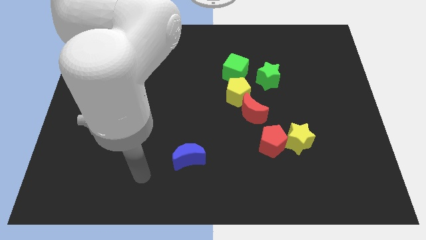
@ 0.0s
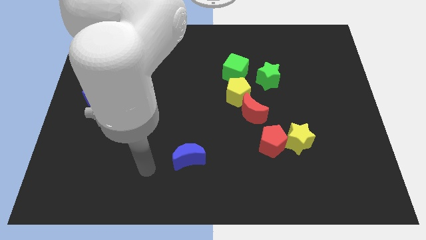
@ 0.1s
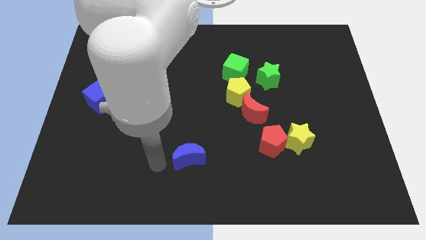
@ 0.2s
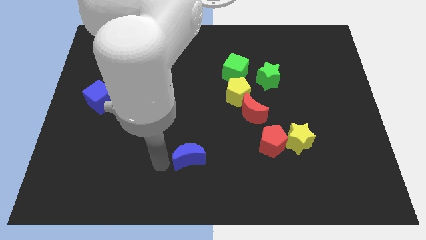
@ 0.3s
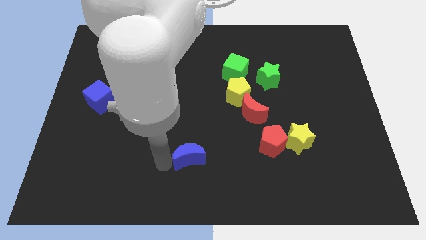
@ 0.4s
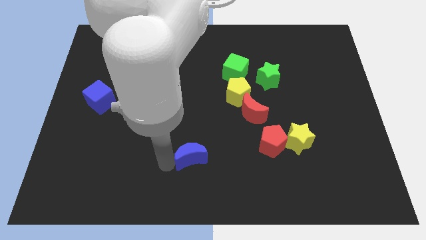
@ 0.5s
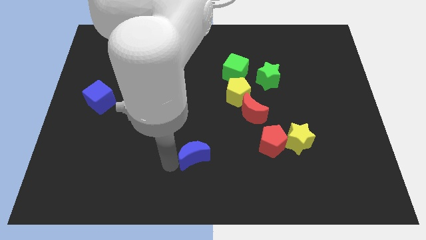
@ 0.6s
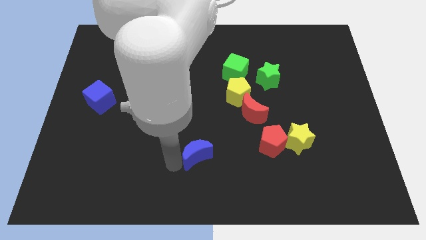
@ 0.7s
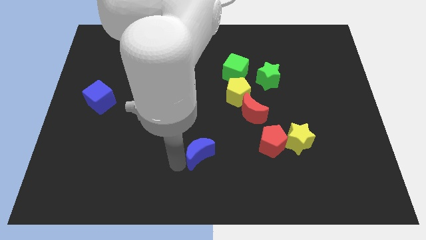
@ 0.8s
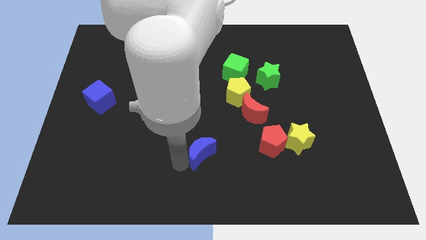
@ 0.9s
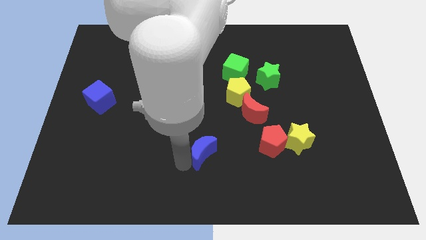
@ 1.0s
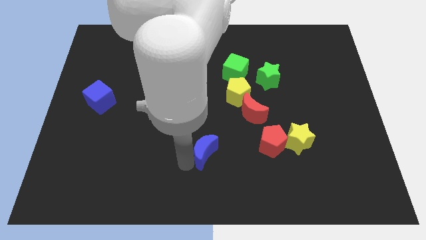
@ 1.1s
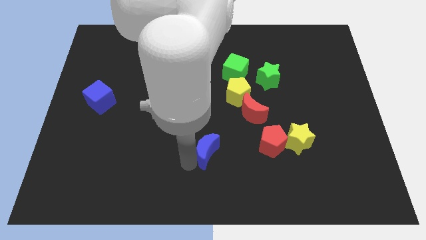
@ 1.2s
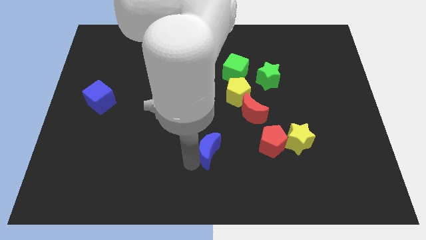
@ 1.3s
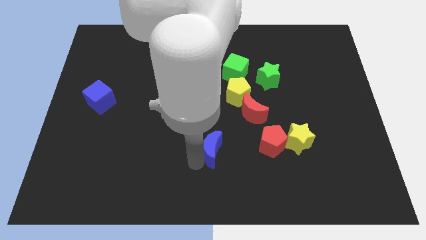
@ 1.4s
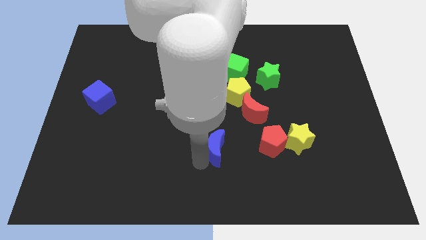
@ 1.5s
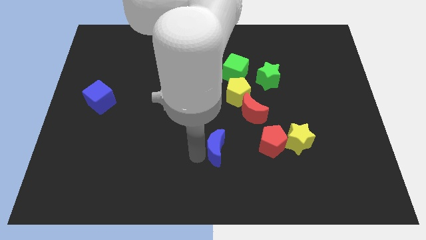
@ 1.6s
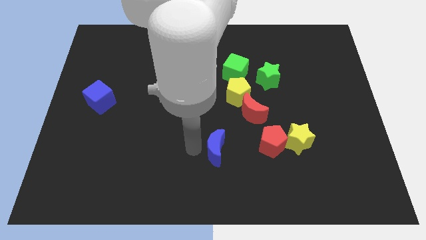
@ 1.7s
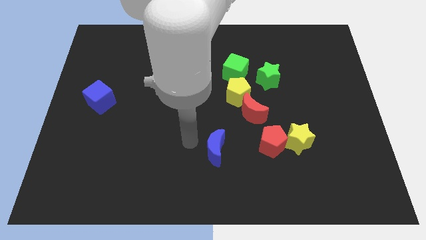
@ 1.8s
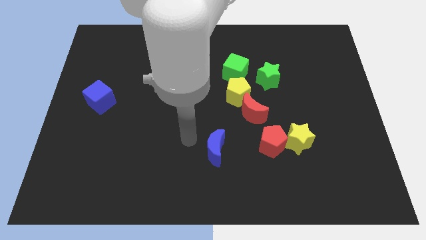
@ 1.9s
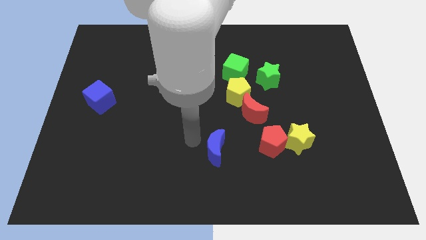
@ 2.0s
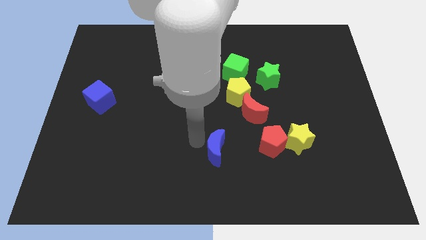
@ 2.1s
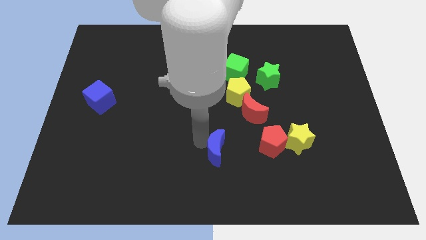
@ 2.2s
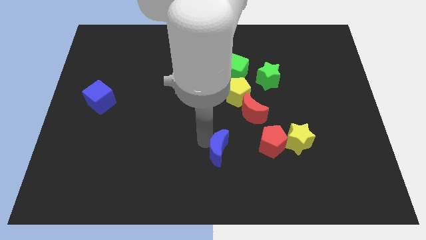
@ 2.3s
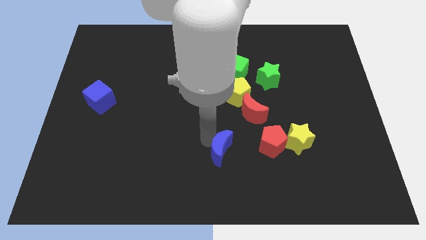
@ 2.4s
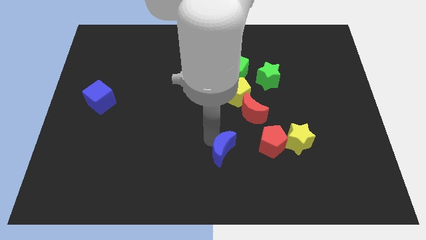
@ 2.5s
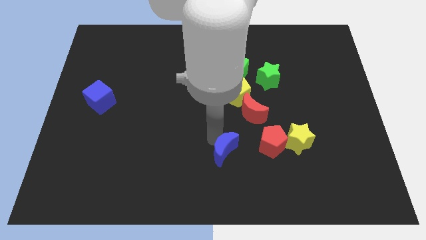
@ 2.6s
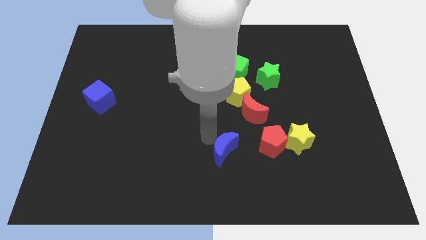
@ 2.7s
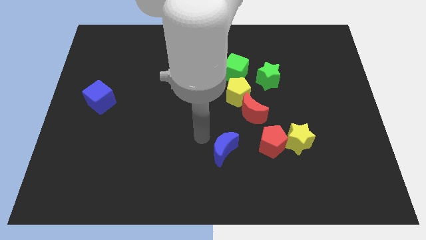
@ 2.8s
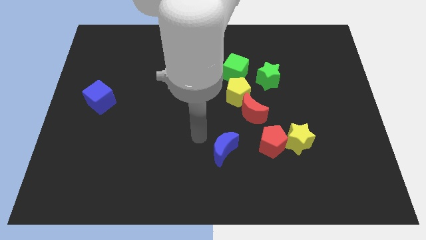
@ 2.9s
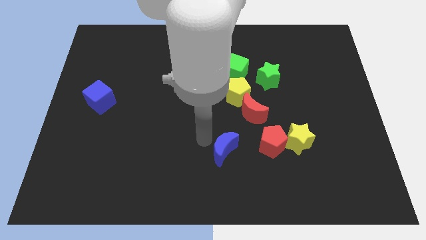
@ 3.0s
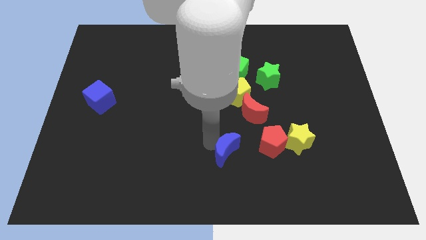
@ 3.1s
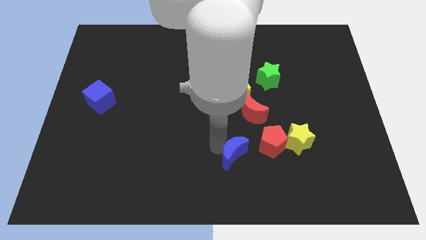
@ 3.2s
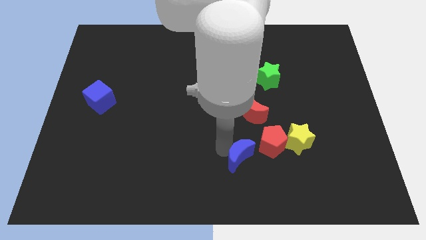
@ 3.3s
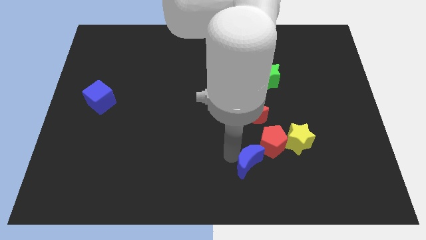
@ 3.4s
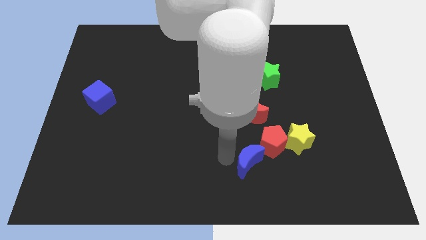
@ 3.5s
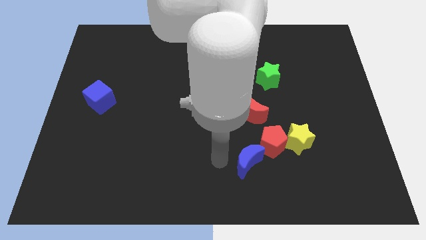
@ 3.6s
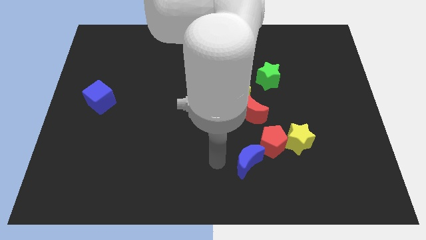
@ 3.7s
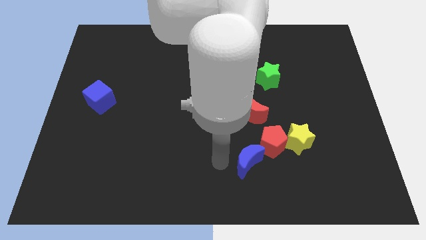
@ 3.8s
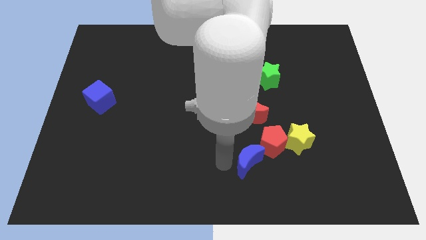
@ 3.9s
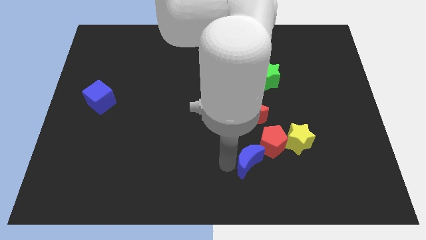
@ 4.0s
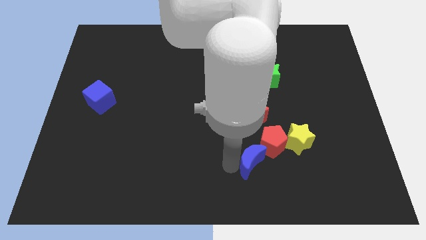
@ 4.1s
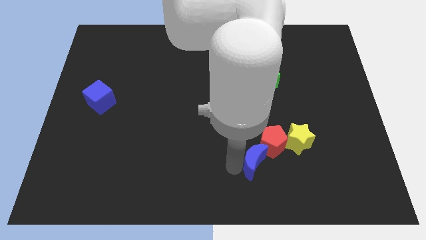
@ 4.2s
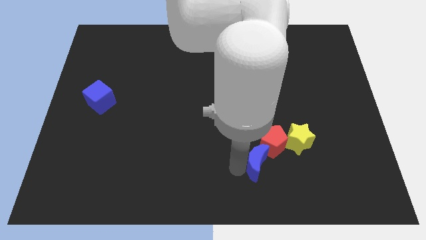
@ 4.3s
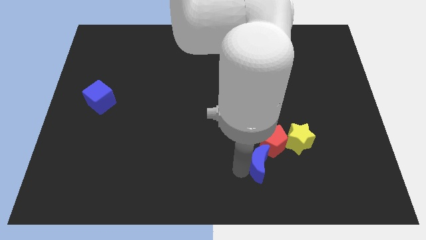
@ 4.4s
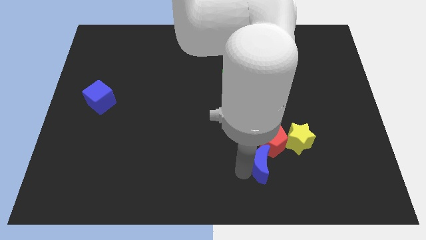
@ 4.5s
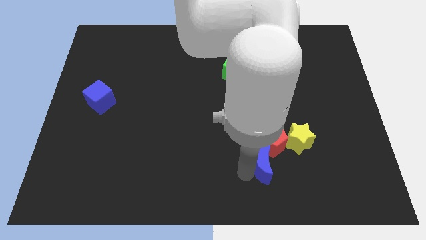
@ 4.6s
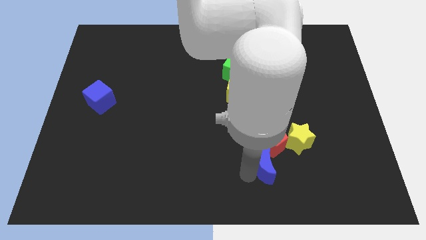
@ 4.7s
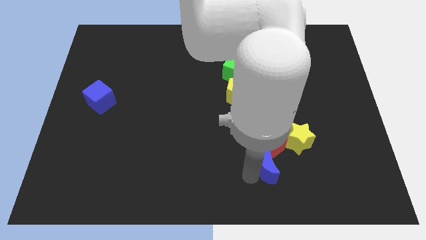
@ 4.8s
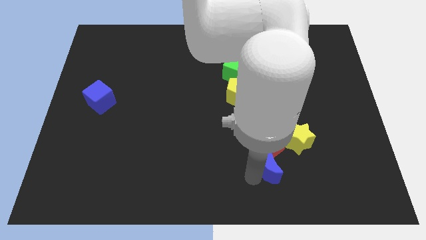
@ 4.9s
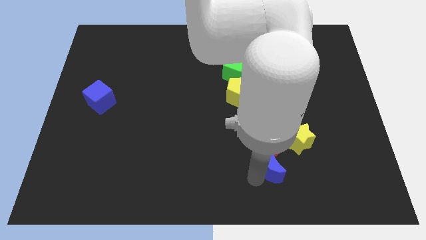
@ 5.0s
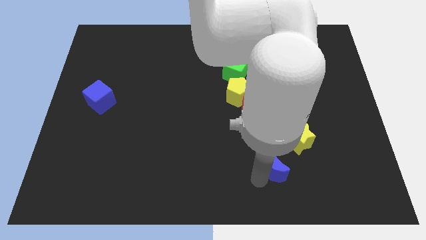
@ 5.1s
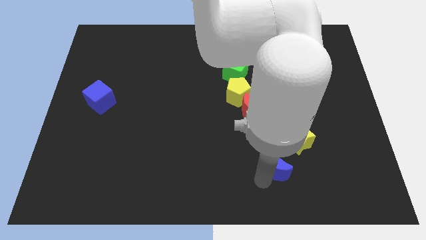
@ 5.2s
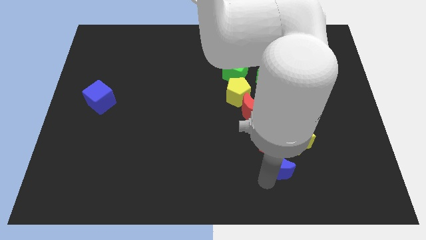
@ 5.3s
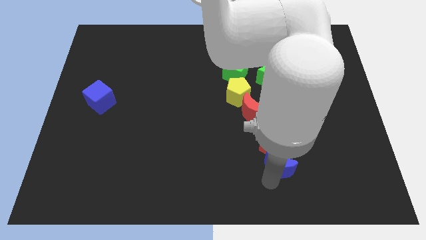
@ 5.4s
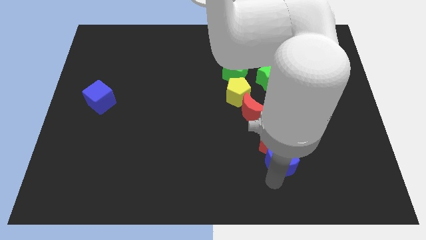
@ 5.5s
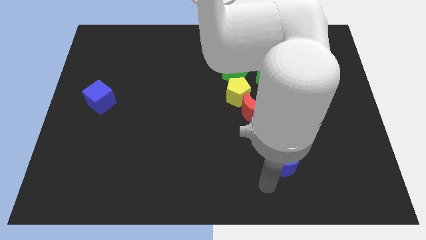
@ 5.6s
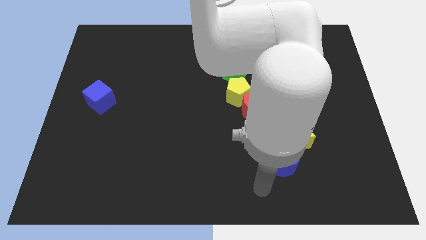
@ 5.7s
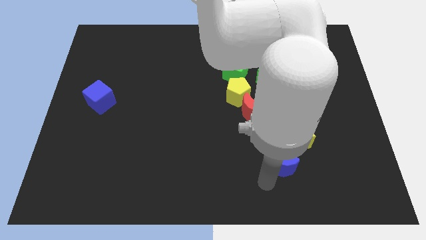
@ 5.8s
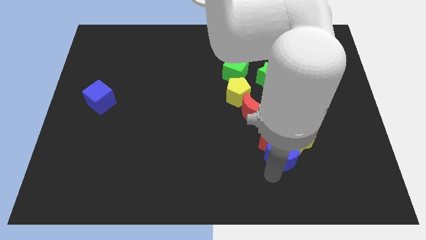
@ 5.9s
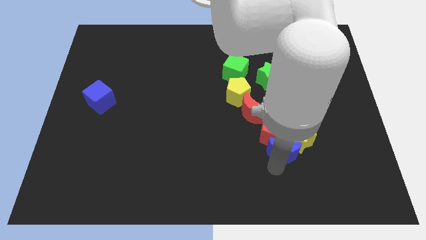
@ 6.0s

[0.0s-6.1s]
slide the blue moon towards the yellow star
